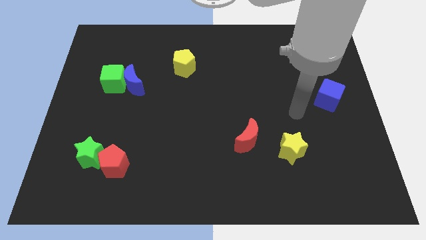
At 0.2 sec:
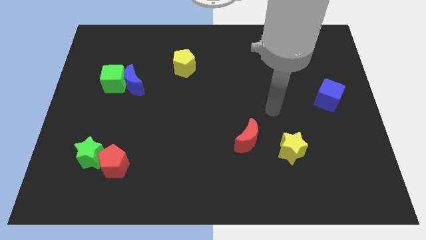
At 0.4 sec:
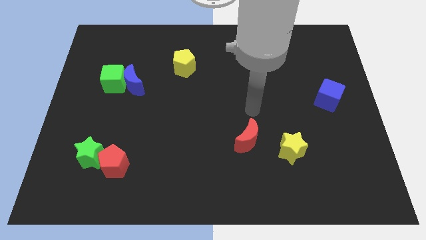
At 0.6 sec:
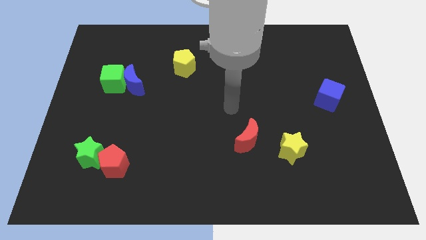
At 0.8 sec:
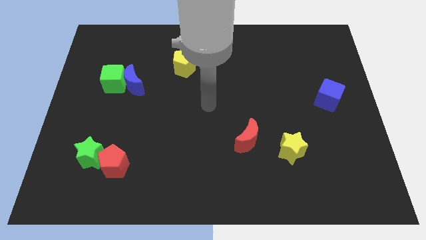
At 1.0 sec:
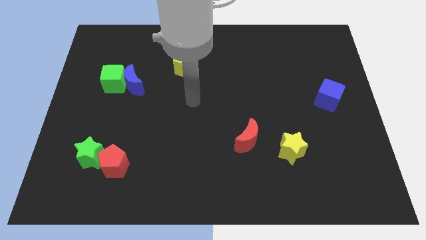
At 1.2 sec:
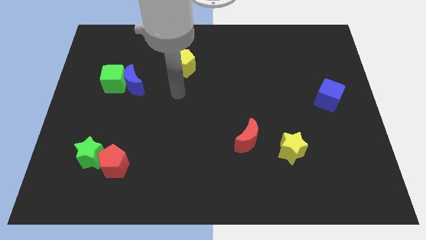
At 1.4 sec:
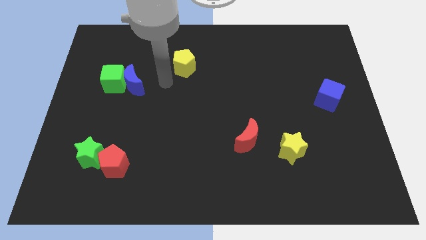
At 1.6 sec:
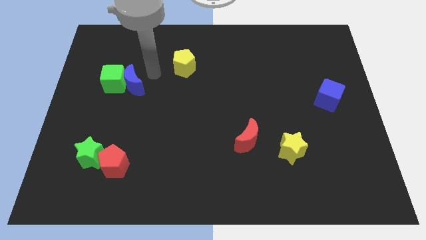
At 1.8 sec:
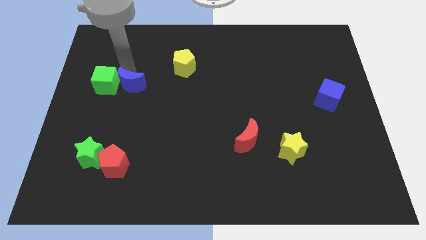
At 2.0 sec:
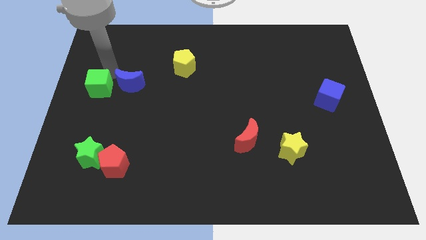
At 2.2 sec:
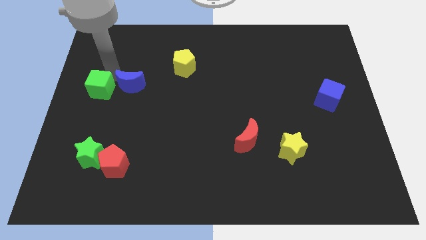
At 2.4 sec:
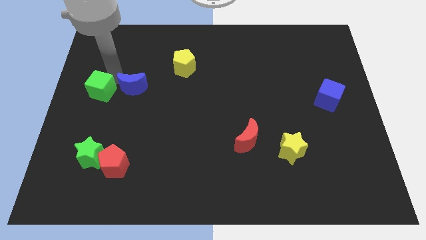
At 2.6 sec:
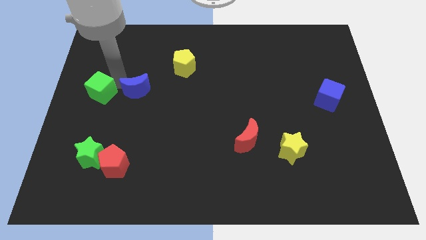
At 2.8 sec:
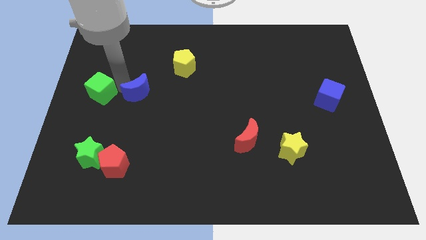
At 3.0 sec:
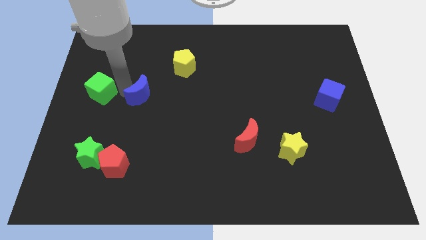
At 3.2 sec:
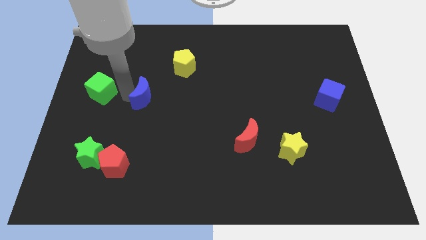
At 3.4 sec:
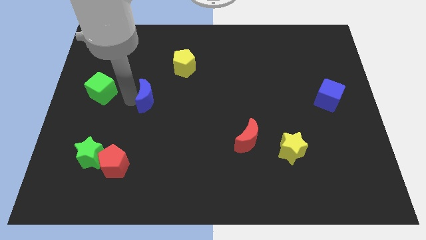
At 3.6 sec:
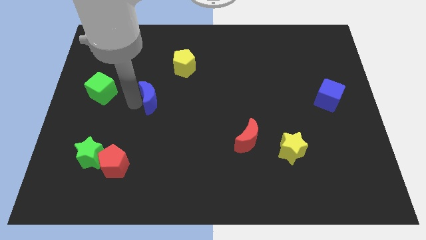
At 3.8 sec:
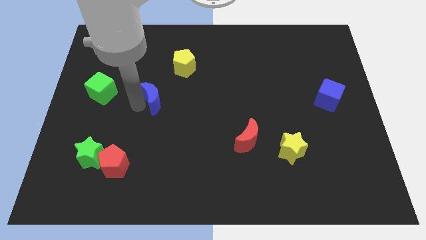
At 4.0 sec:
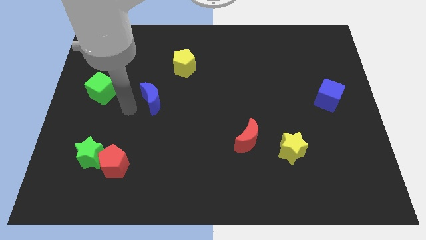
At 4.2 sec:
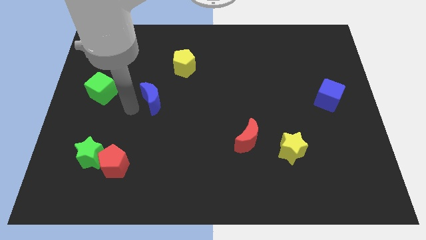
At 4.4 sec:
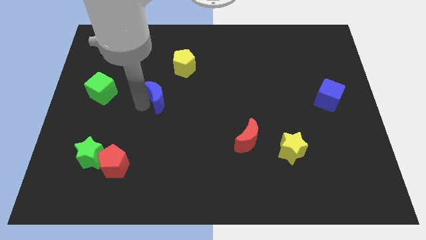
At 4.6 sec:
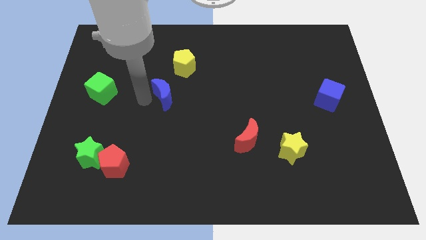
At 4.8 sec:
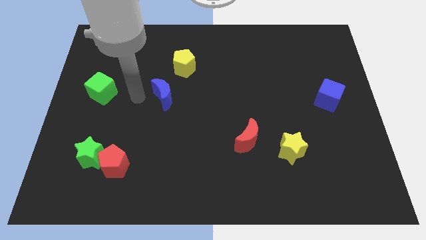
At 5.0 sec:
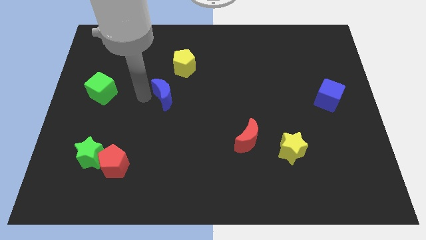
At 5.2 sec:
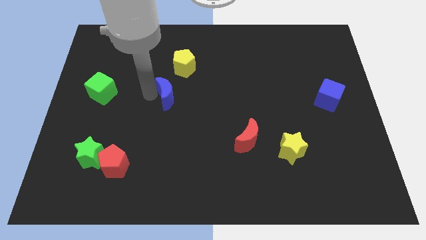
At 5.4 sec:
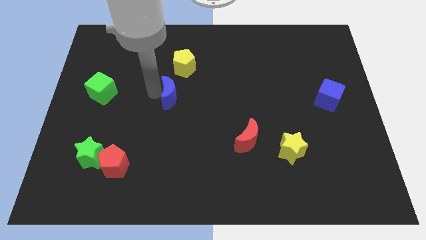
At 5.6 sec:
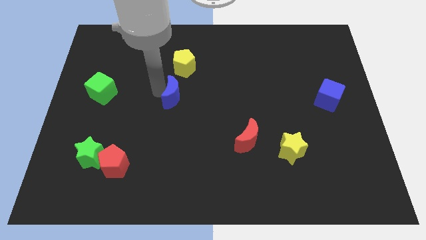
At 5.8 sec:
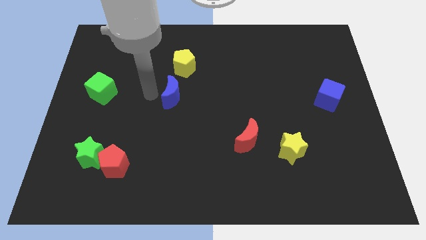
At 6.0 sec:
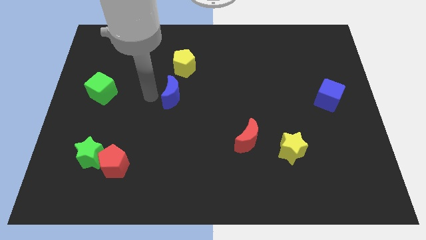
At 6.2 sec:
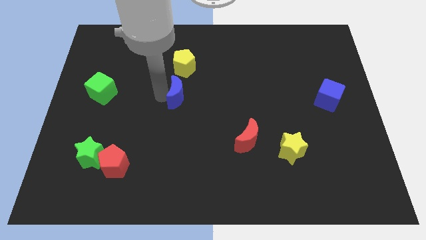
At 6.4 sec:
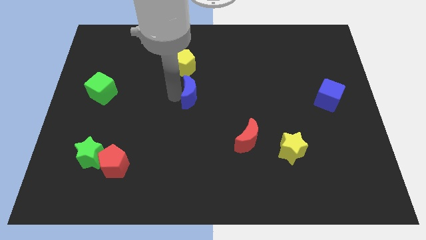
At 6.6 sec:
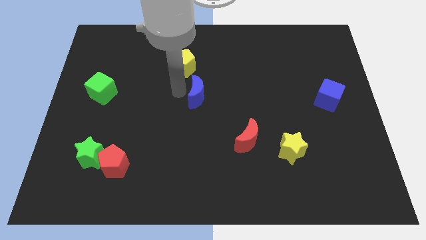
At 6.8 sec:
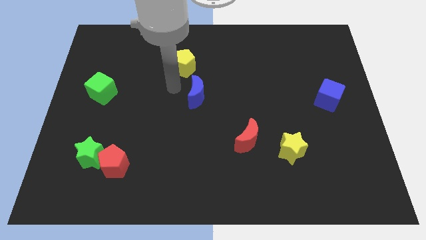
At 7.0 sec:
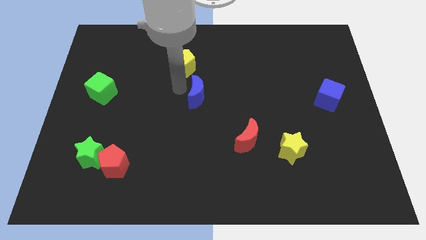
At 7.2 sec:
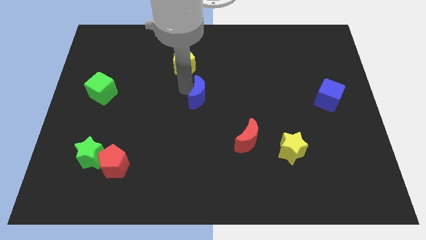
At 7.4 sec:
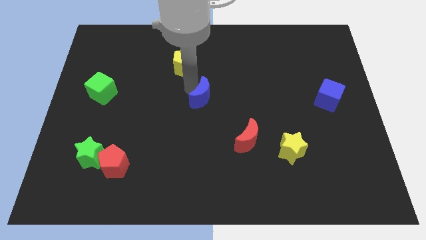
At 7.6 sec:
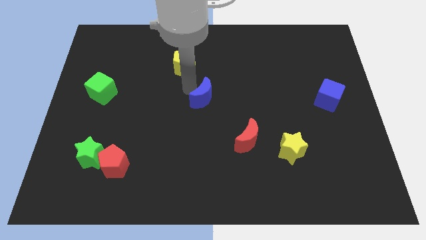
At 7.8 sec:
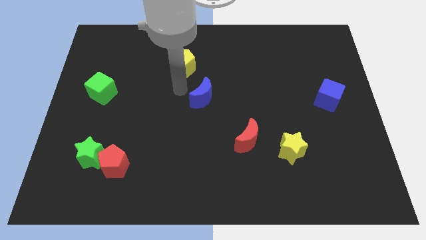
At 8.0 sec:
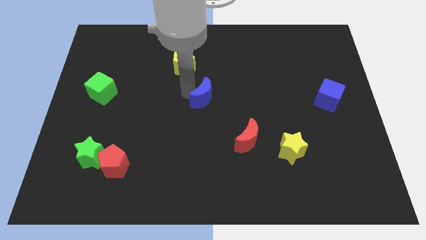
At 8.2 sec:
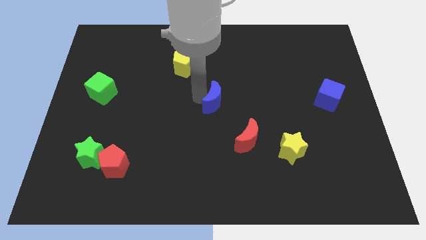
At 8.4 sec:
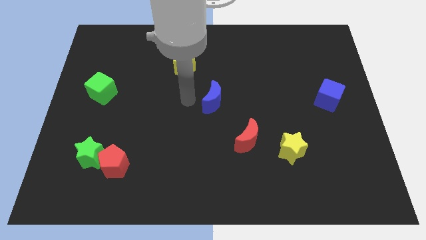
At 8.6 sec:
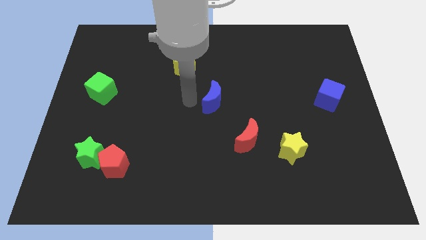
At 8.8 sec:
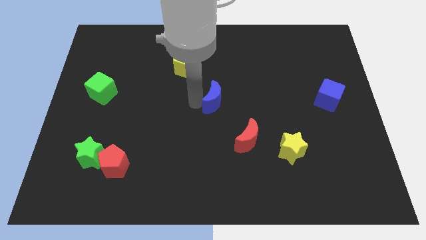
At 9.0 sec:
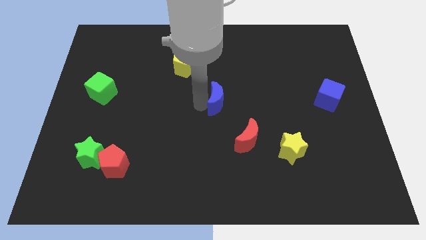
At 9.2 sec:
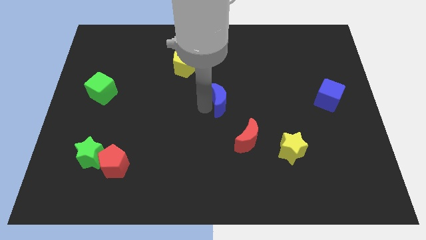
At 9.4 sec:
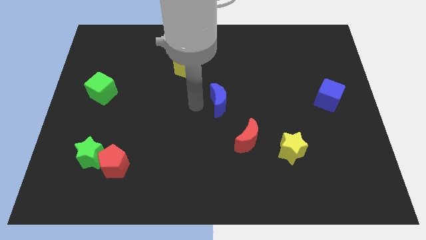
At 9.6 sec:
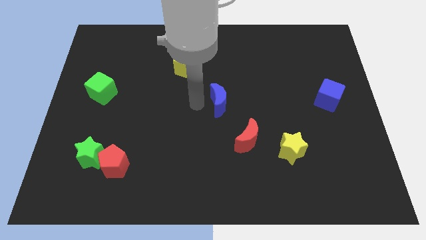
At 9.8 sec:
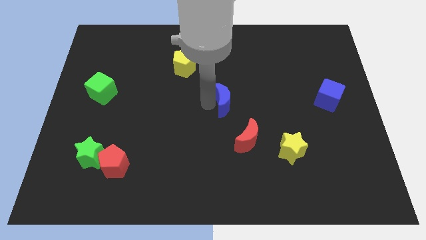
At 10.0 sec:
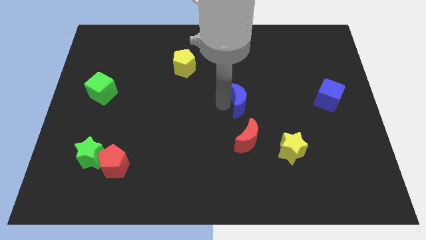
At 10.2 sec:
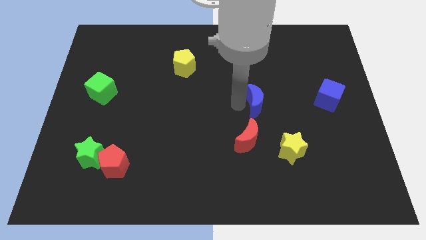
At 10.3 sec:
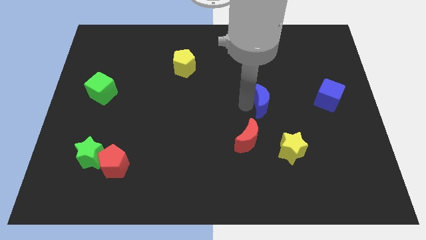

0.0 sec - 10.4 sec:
put the blue moon to the left of the blue cube

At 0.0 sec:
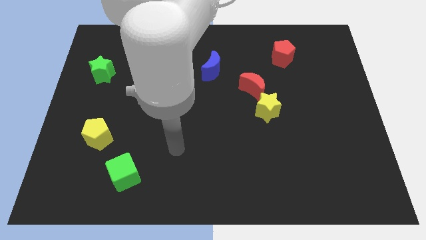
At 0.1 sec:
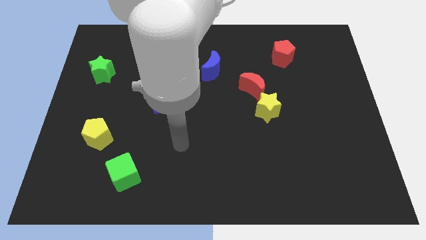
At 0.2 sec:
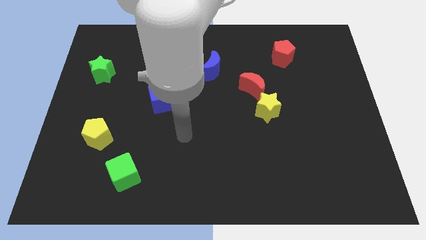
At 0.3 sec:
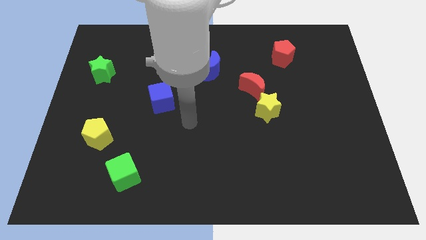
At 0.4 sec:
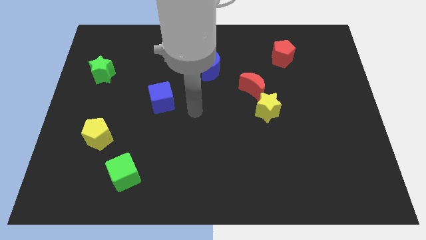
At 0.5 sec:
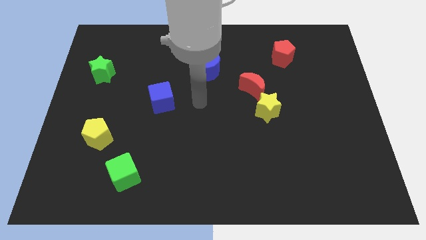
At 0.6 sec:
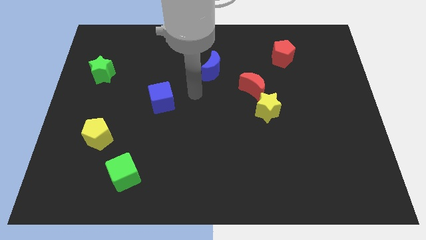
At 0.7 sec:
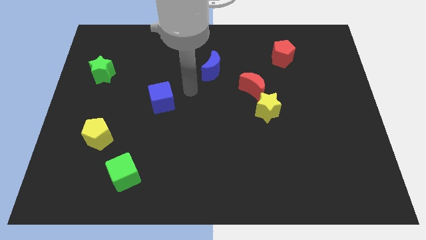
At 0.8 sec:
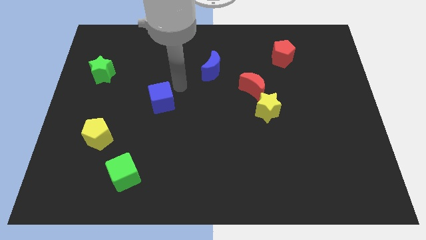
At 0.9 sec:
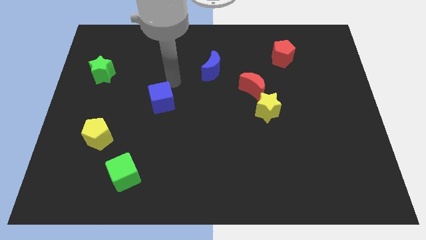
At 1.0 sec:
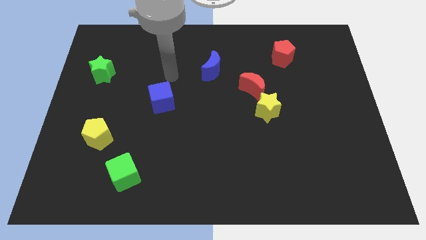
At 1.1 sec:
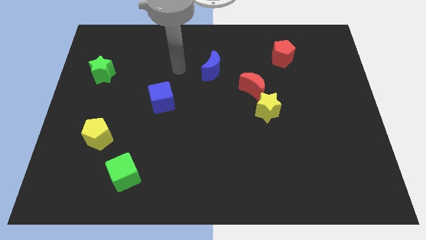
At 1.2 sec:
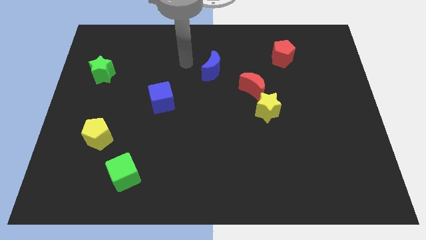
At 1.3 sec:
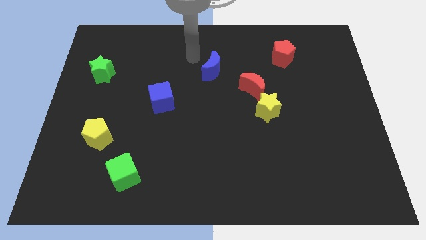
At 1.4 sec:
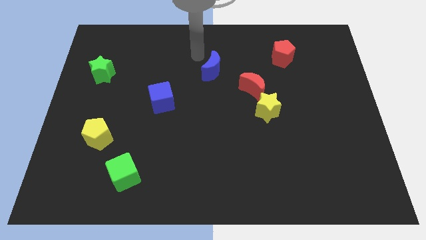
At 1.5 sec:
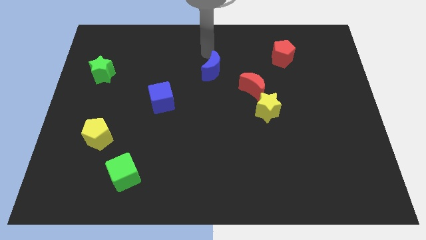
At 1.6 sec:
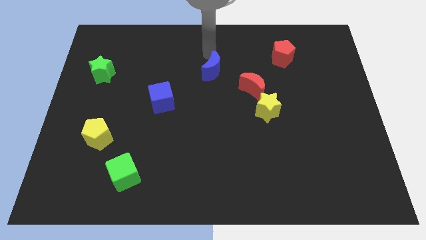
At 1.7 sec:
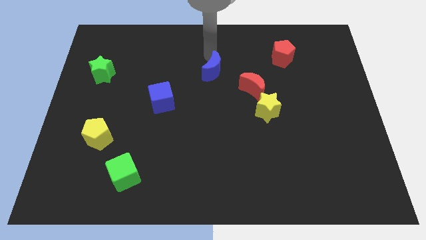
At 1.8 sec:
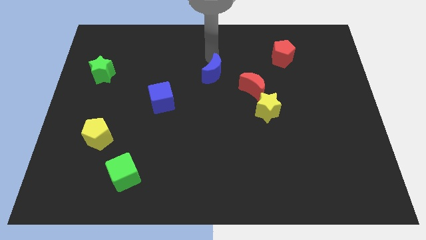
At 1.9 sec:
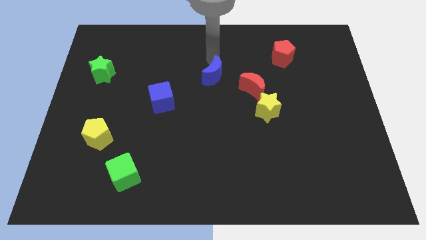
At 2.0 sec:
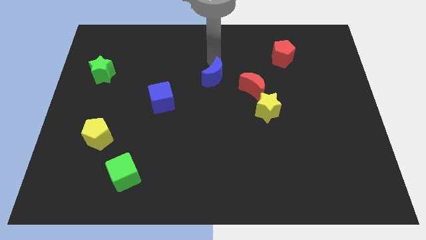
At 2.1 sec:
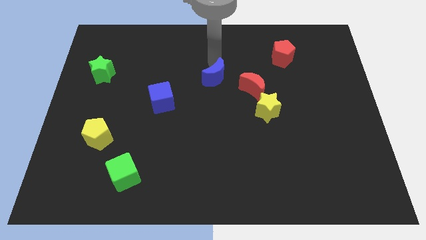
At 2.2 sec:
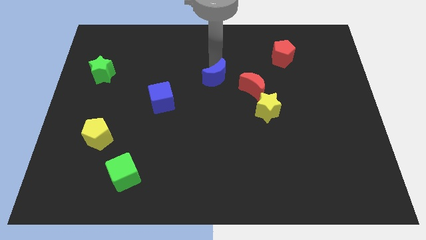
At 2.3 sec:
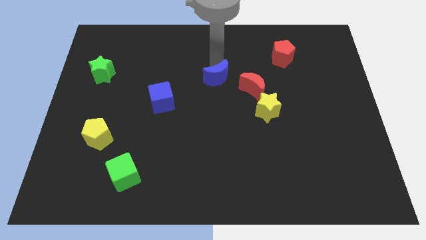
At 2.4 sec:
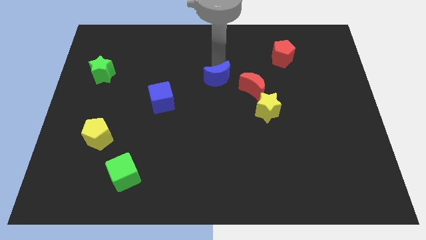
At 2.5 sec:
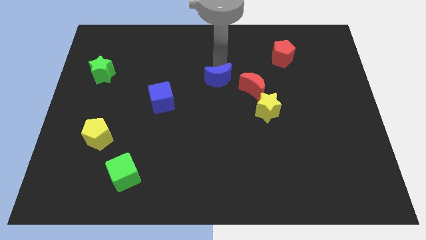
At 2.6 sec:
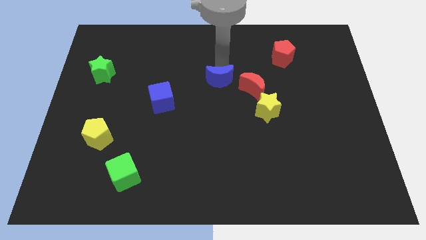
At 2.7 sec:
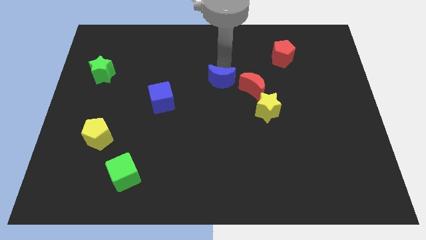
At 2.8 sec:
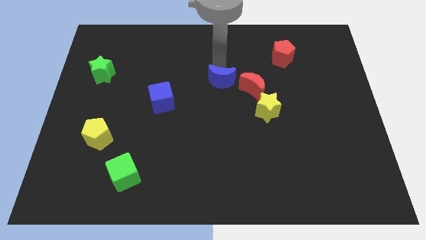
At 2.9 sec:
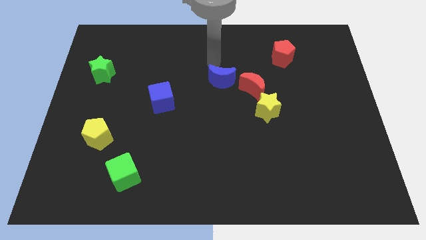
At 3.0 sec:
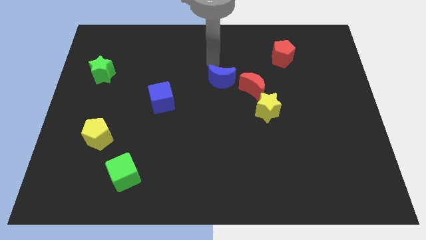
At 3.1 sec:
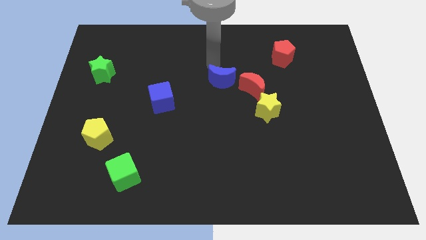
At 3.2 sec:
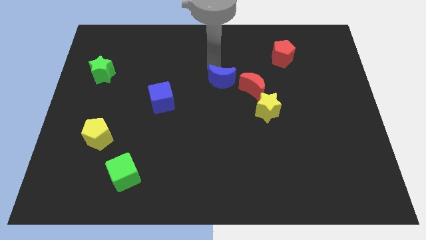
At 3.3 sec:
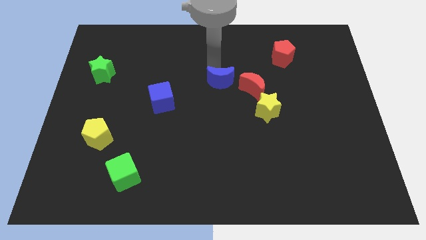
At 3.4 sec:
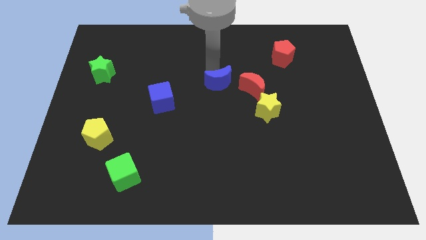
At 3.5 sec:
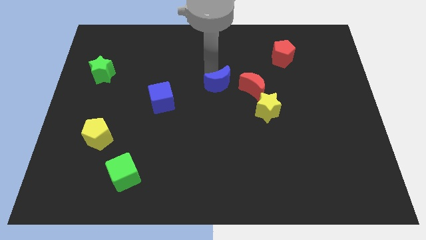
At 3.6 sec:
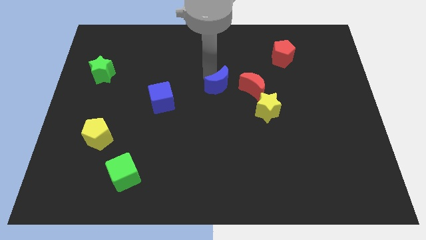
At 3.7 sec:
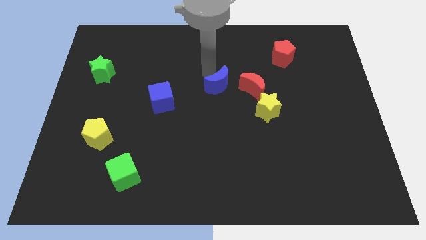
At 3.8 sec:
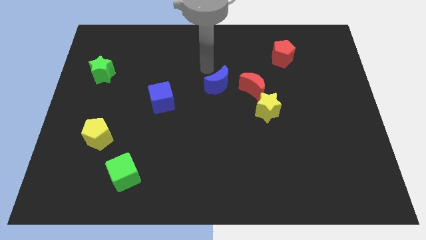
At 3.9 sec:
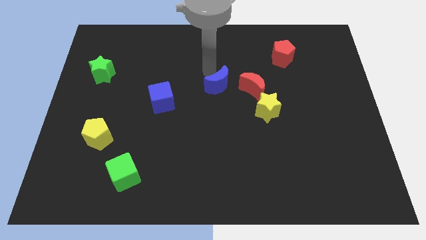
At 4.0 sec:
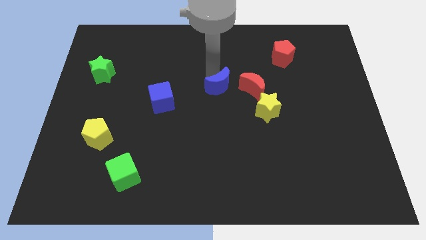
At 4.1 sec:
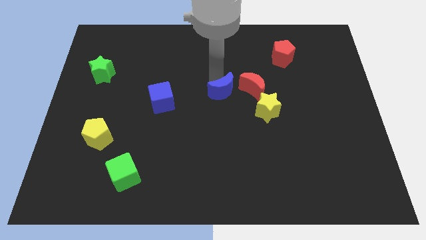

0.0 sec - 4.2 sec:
push the blue moon to the bottom left side of the red moon
